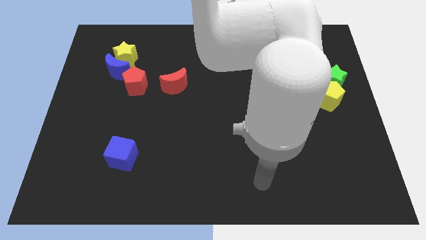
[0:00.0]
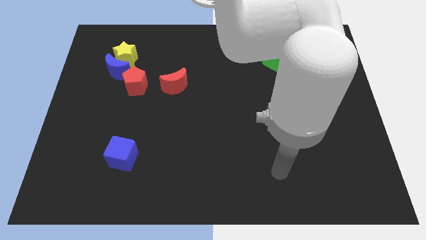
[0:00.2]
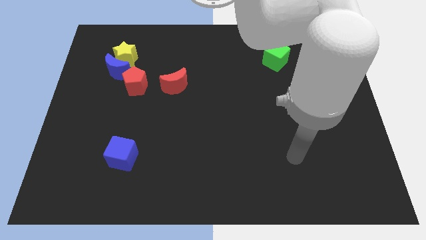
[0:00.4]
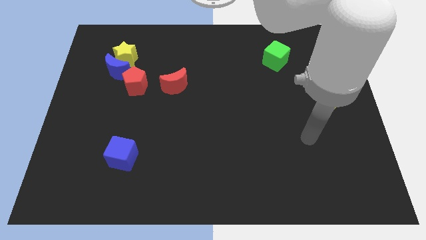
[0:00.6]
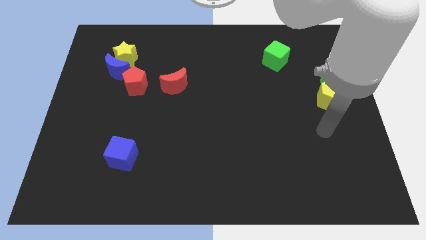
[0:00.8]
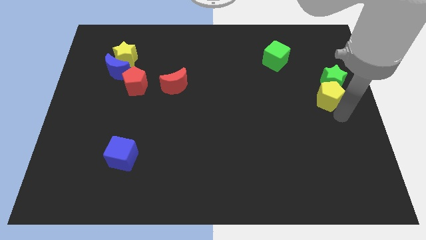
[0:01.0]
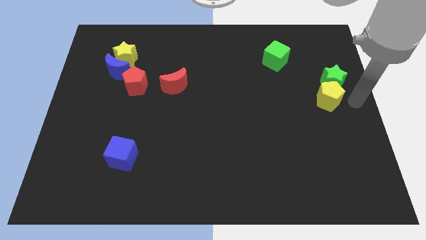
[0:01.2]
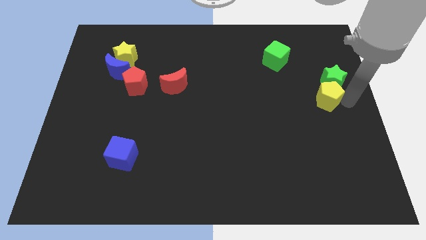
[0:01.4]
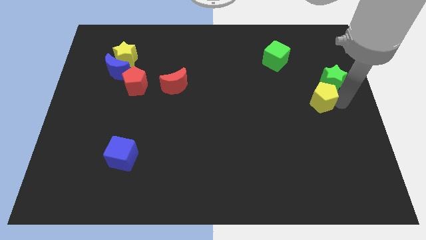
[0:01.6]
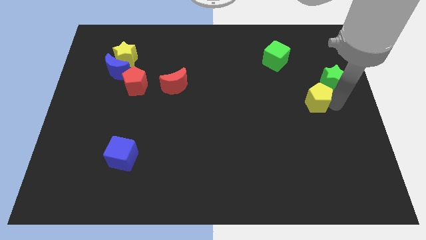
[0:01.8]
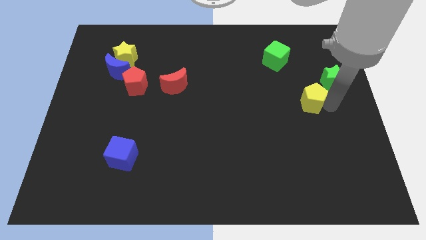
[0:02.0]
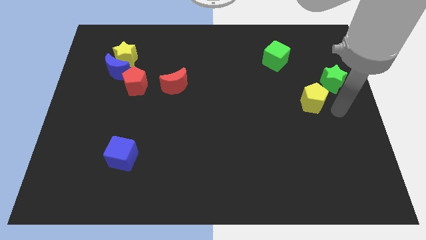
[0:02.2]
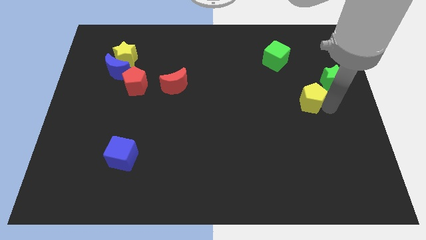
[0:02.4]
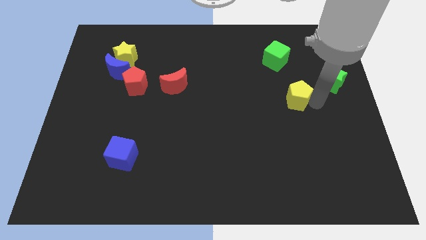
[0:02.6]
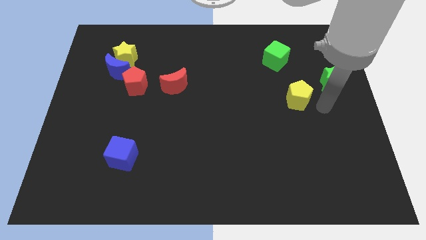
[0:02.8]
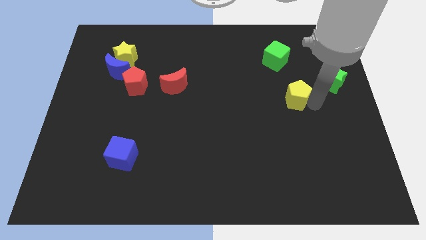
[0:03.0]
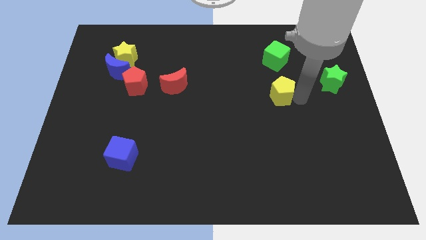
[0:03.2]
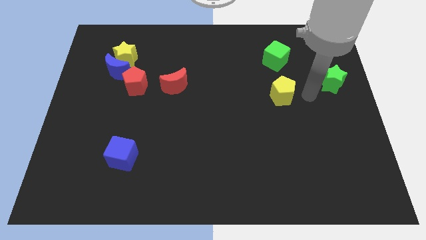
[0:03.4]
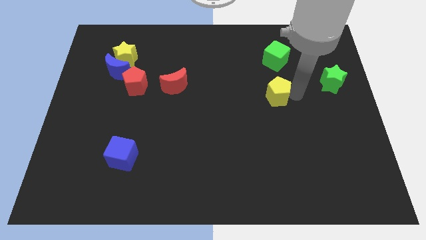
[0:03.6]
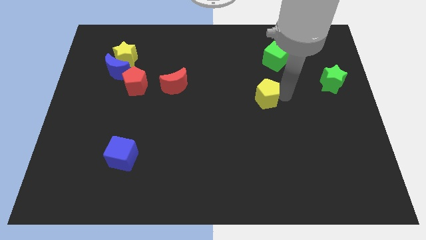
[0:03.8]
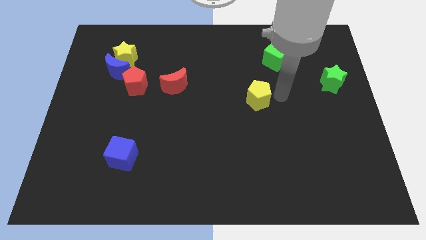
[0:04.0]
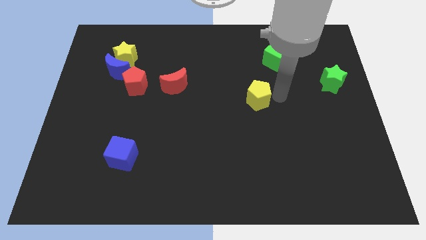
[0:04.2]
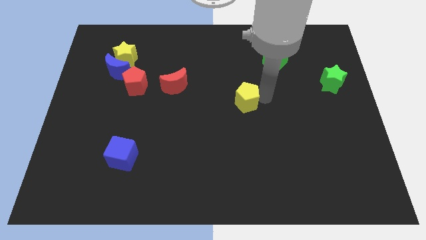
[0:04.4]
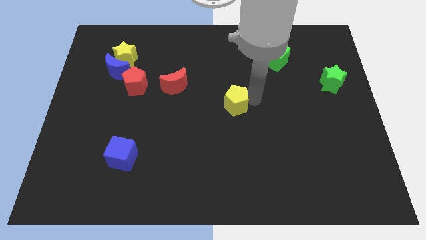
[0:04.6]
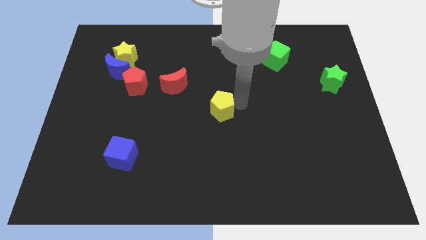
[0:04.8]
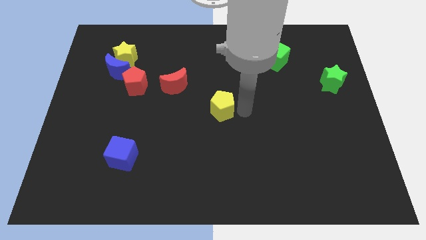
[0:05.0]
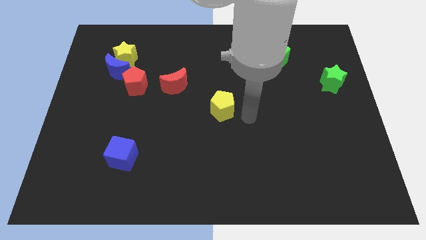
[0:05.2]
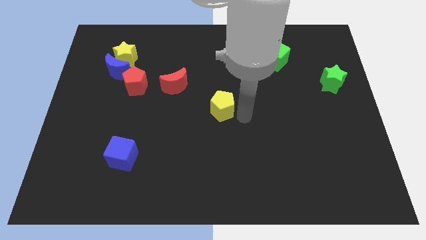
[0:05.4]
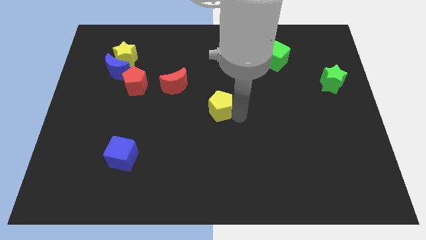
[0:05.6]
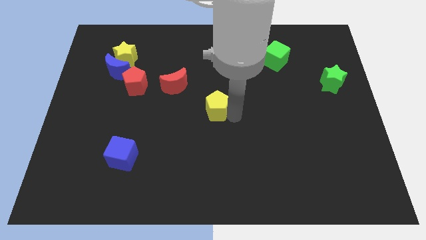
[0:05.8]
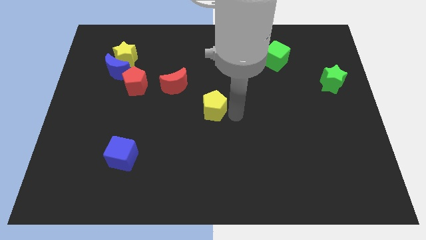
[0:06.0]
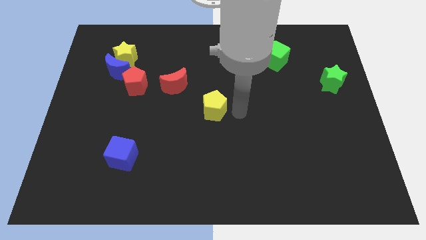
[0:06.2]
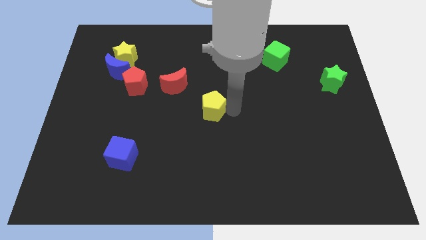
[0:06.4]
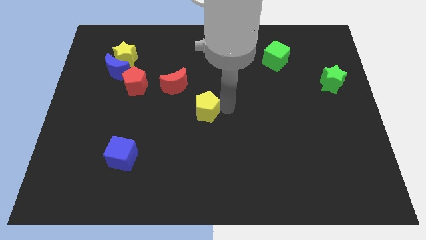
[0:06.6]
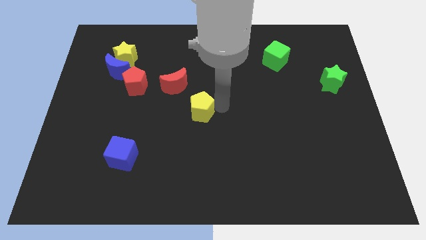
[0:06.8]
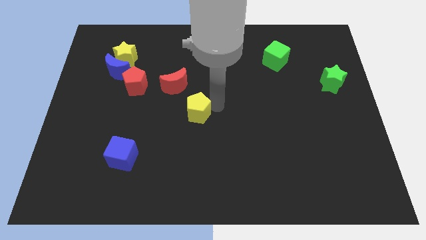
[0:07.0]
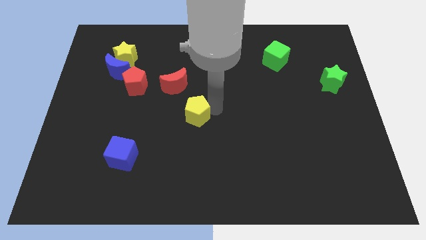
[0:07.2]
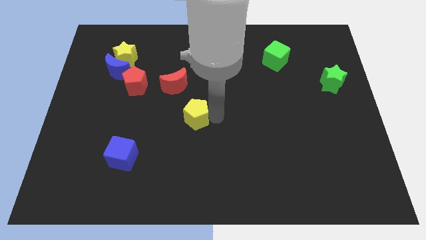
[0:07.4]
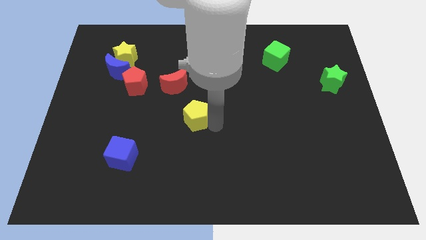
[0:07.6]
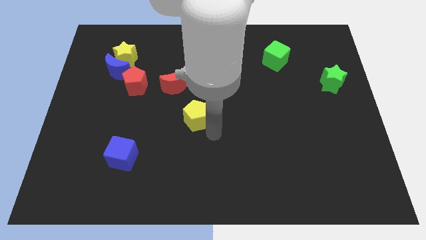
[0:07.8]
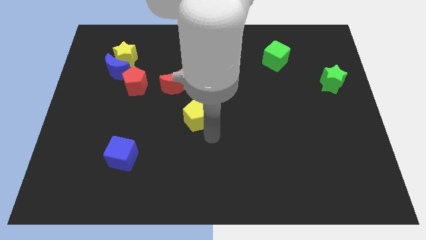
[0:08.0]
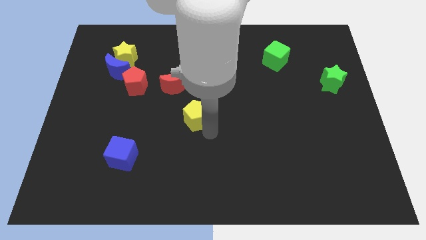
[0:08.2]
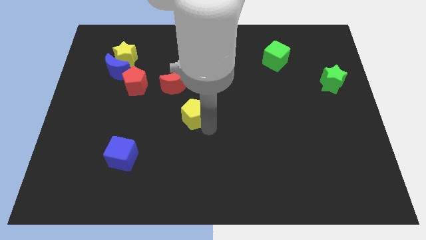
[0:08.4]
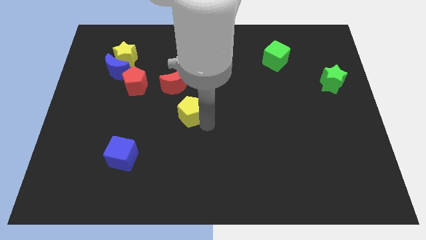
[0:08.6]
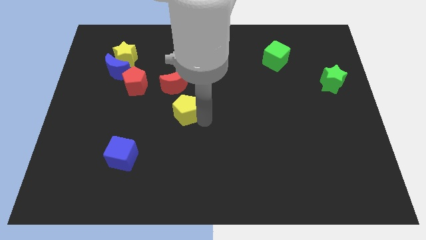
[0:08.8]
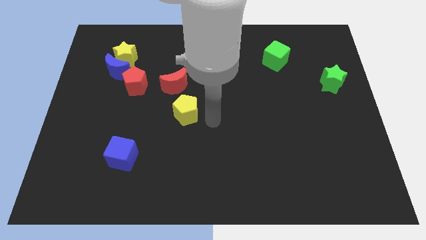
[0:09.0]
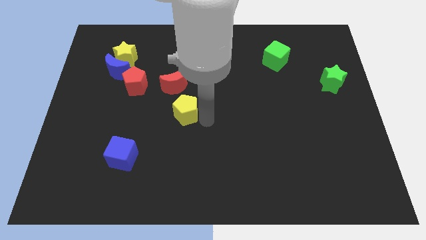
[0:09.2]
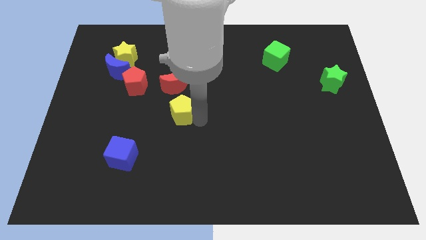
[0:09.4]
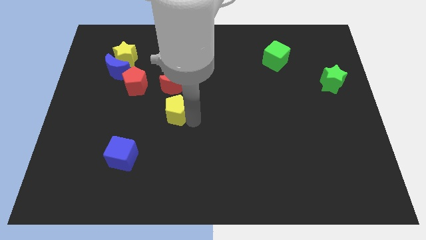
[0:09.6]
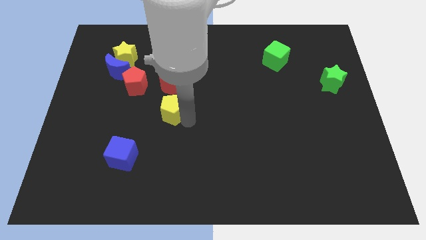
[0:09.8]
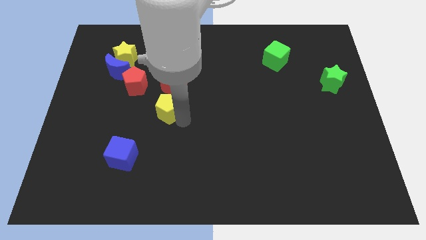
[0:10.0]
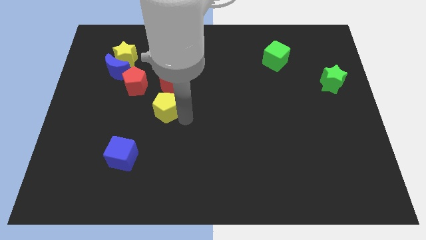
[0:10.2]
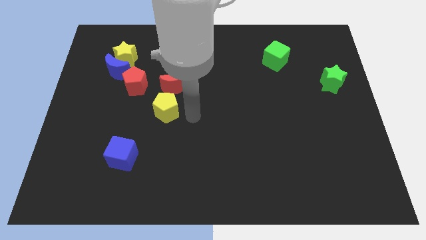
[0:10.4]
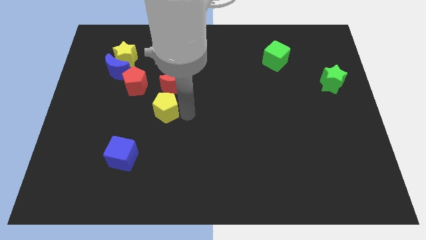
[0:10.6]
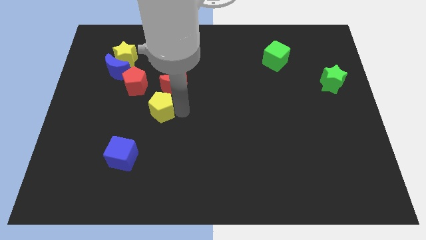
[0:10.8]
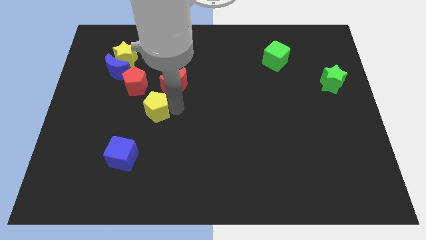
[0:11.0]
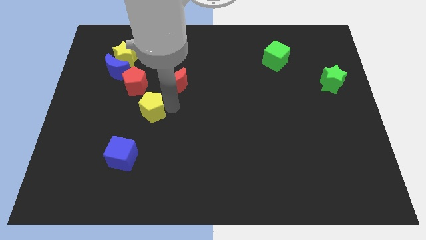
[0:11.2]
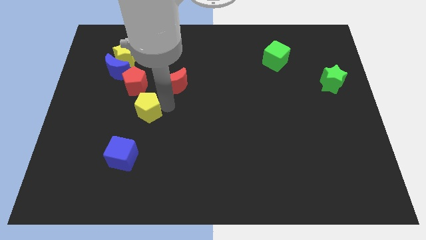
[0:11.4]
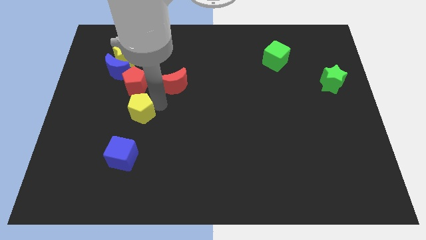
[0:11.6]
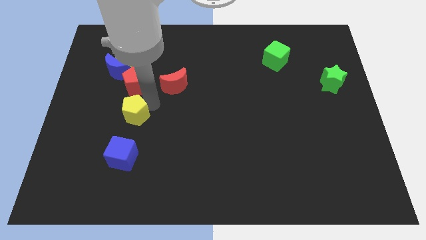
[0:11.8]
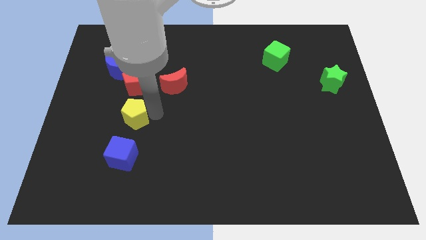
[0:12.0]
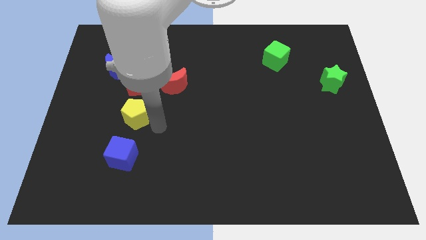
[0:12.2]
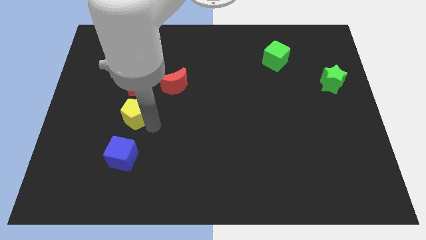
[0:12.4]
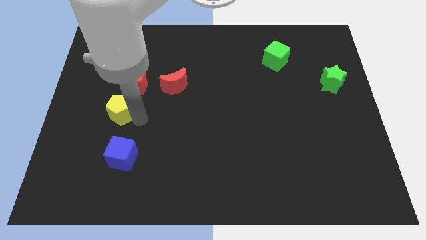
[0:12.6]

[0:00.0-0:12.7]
slide the yellow pentagon to the bottom side of the blue moon
